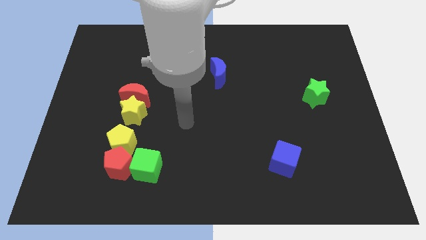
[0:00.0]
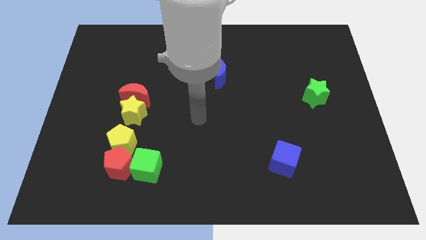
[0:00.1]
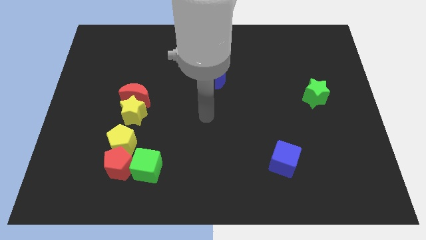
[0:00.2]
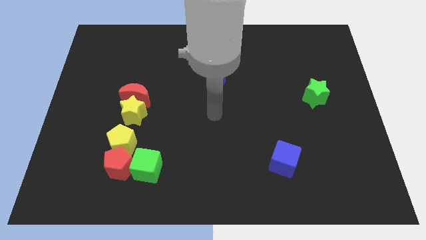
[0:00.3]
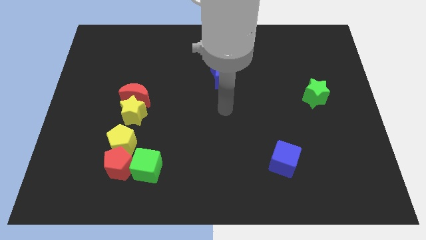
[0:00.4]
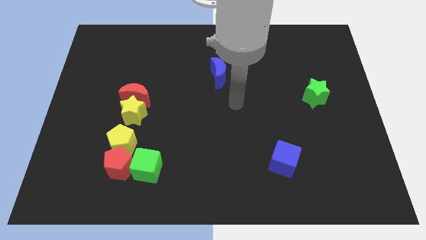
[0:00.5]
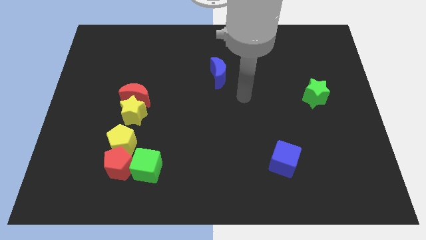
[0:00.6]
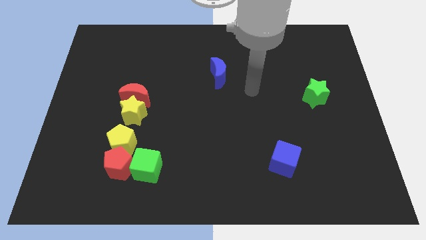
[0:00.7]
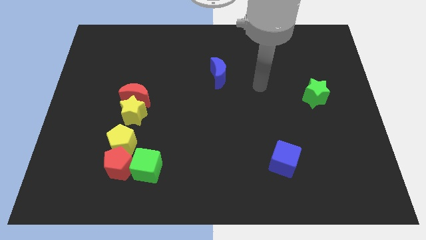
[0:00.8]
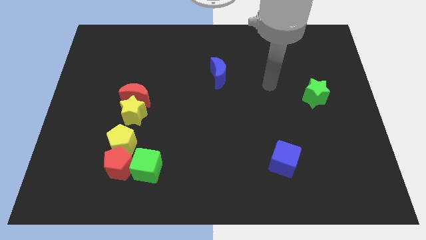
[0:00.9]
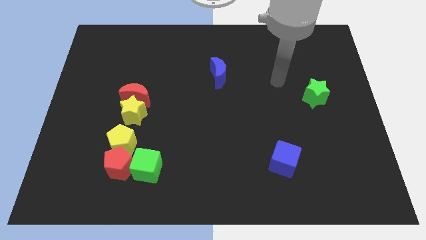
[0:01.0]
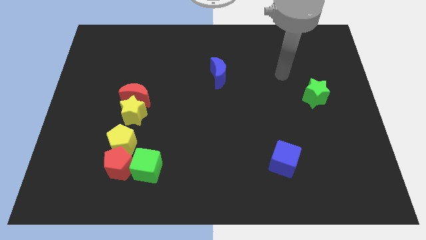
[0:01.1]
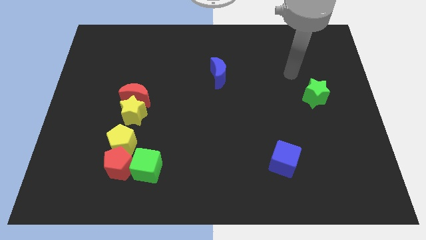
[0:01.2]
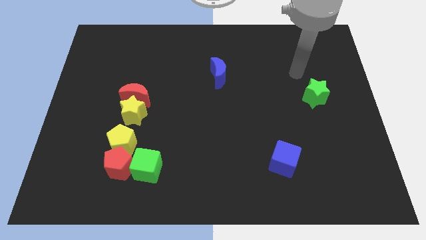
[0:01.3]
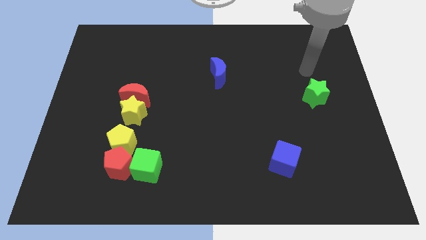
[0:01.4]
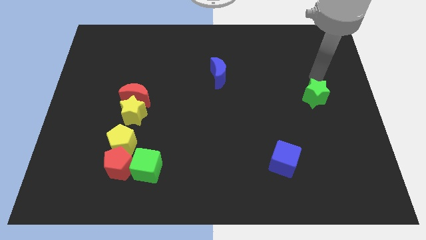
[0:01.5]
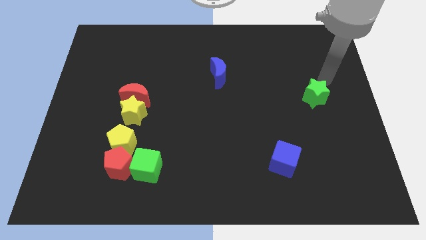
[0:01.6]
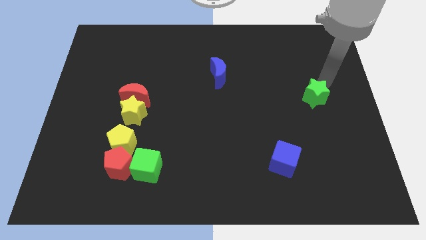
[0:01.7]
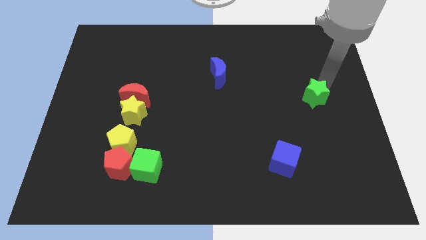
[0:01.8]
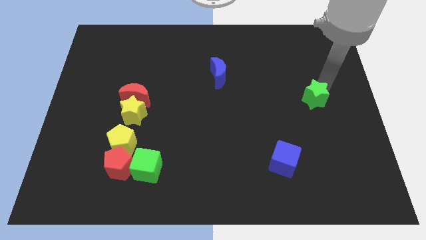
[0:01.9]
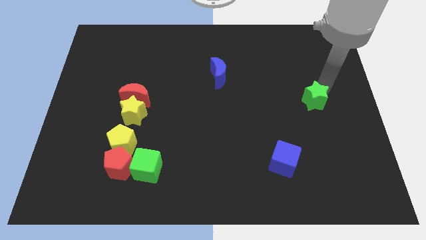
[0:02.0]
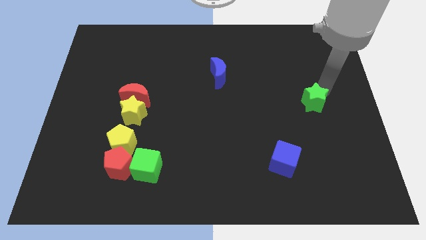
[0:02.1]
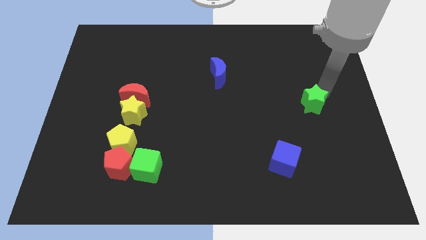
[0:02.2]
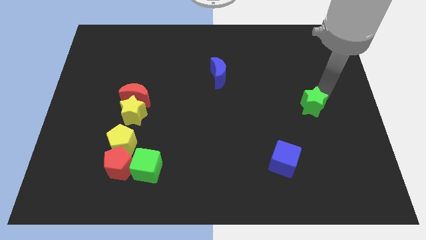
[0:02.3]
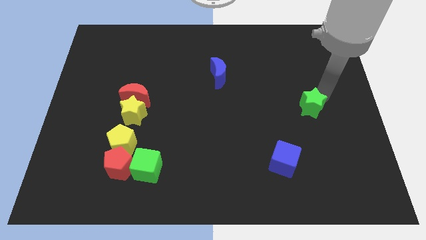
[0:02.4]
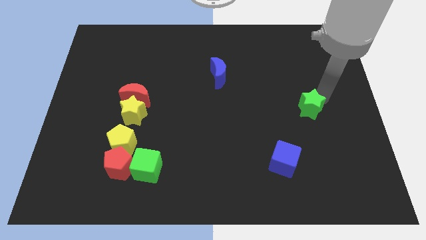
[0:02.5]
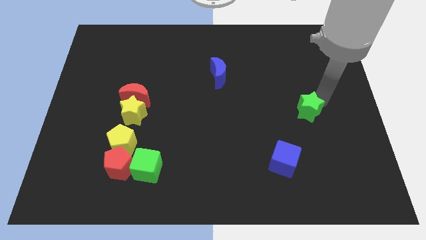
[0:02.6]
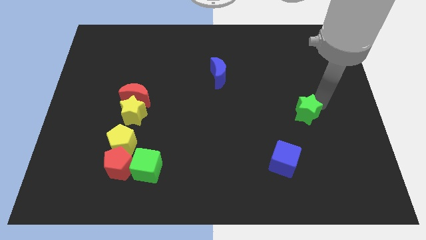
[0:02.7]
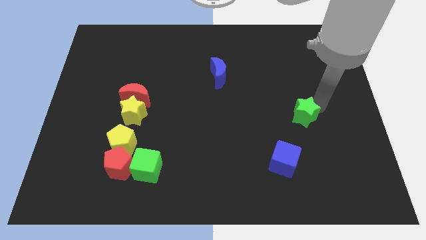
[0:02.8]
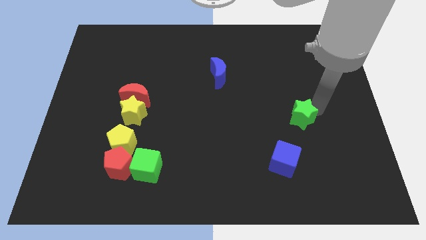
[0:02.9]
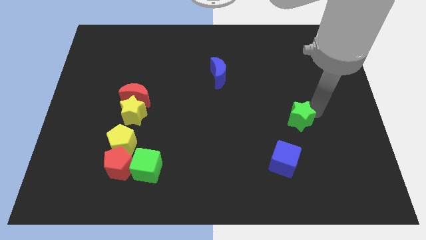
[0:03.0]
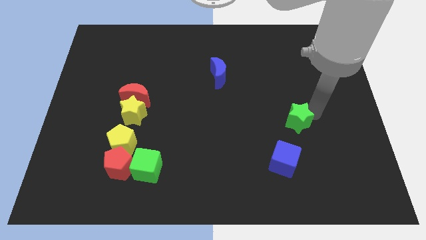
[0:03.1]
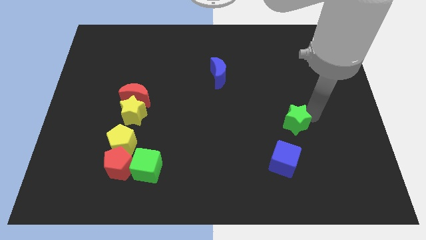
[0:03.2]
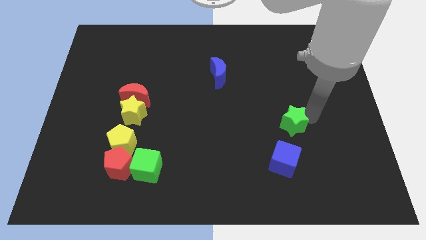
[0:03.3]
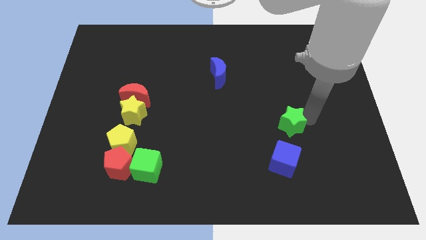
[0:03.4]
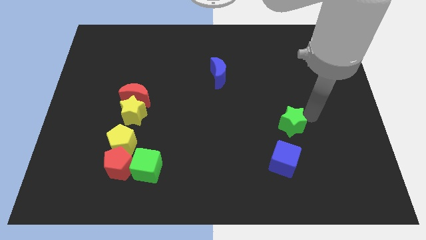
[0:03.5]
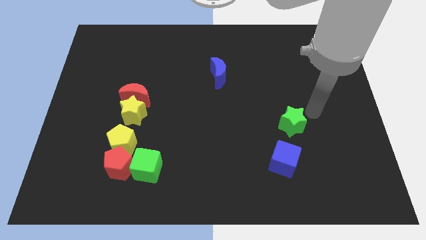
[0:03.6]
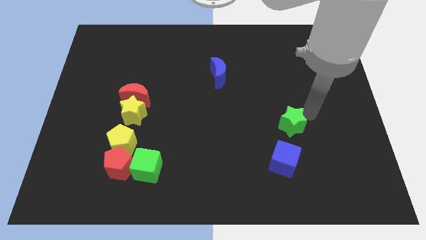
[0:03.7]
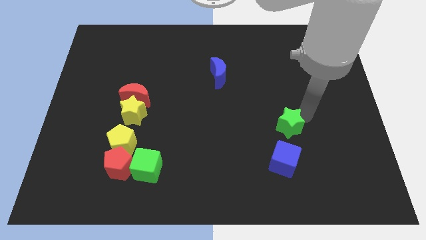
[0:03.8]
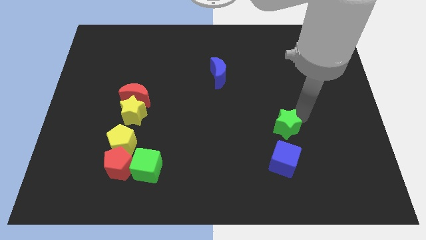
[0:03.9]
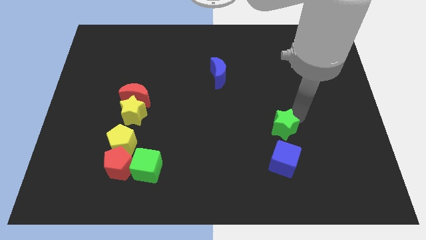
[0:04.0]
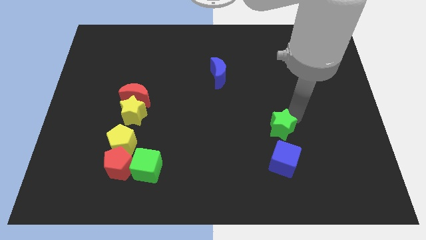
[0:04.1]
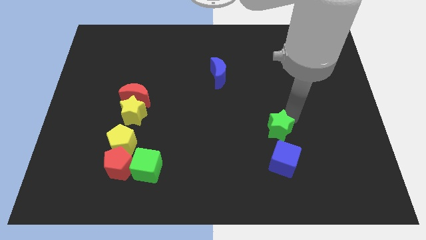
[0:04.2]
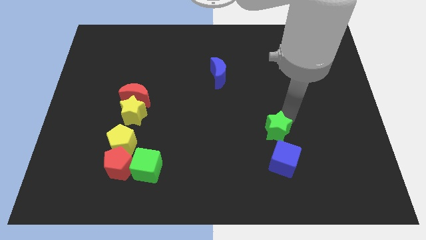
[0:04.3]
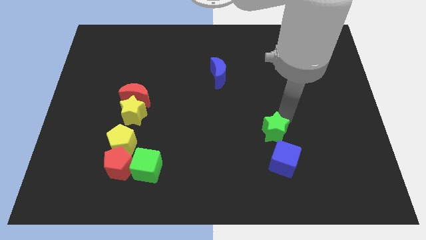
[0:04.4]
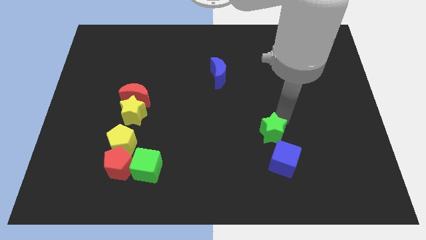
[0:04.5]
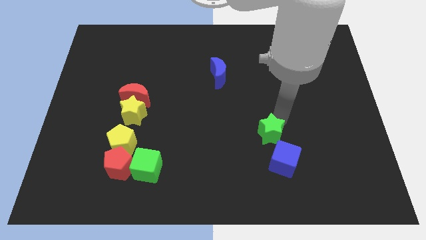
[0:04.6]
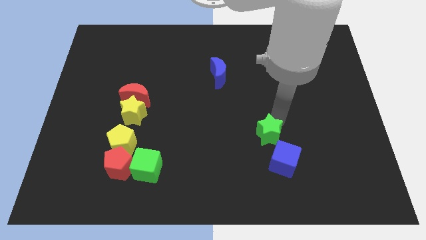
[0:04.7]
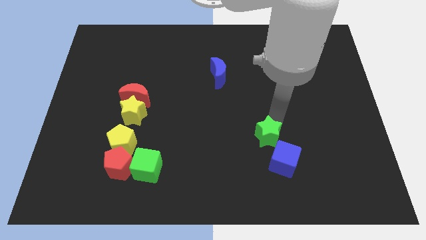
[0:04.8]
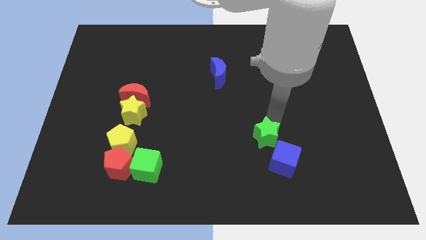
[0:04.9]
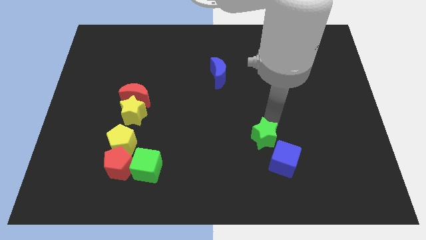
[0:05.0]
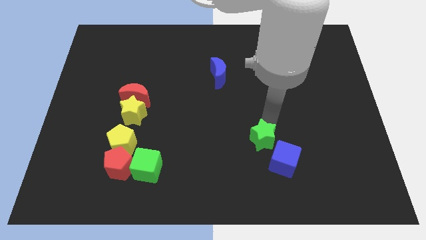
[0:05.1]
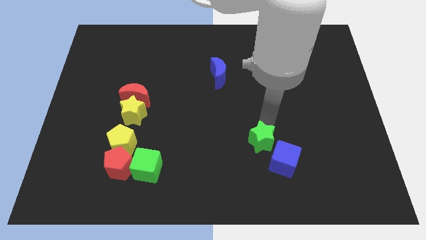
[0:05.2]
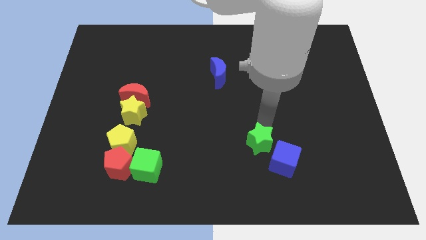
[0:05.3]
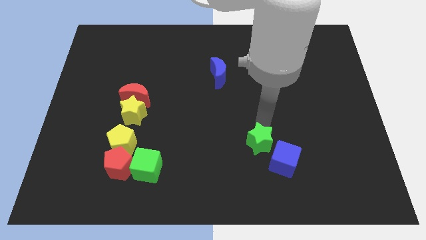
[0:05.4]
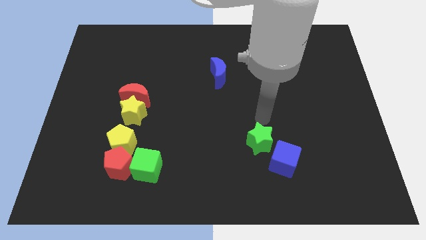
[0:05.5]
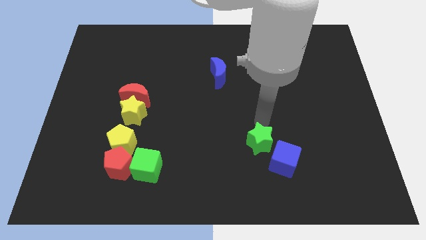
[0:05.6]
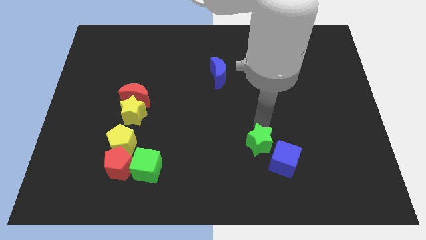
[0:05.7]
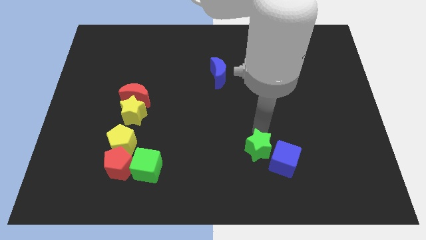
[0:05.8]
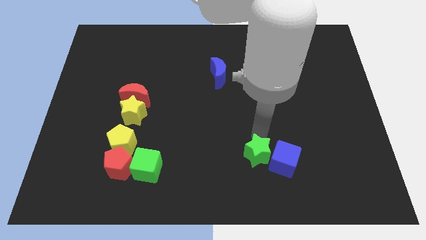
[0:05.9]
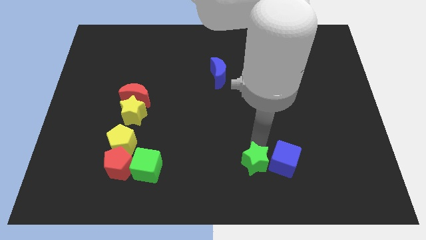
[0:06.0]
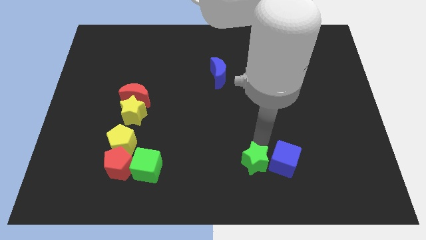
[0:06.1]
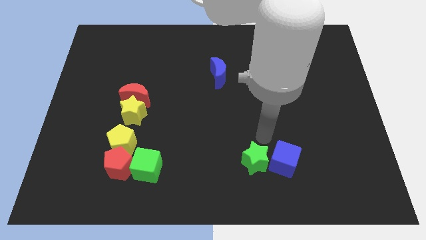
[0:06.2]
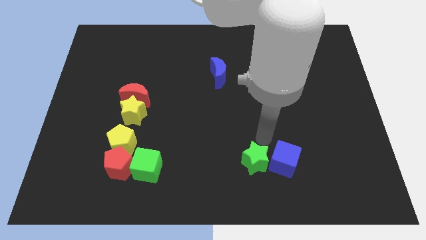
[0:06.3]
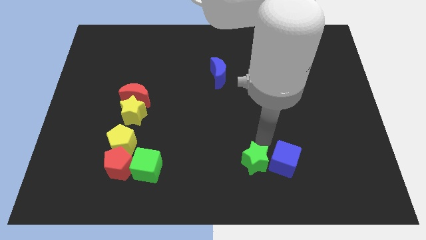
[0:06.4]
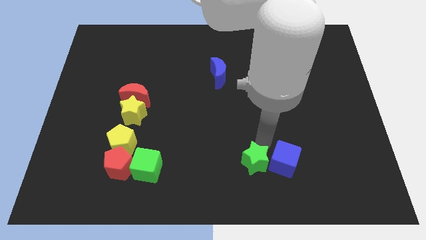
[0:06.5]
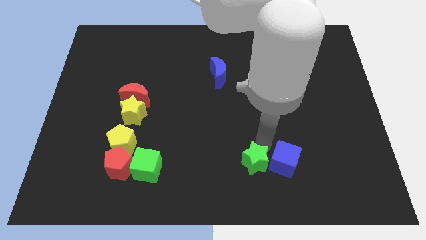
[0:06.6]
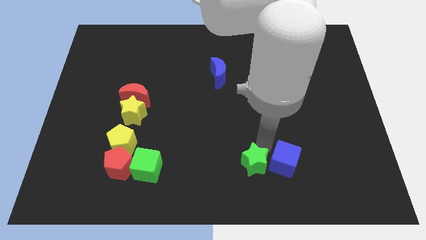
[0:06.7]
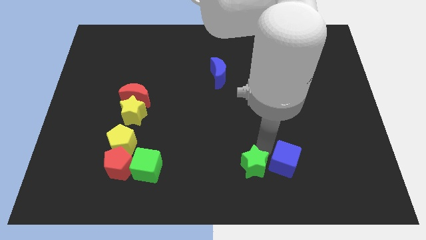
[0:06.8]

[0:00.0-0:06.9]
move the green star to the bottom
